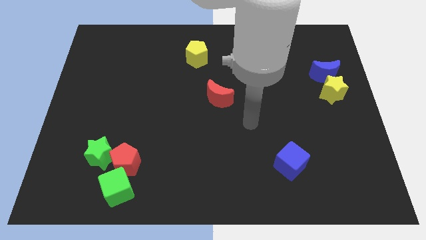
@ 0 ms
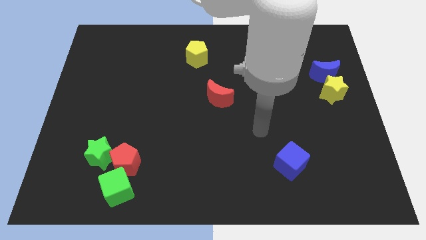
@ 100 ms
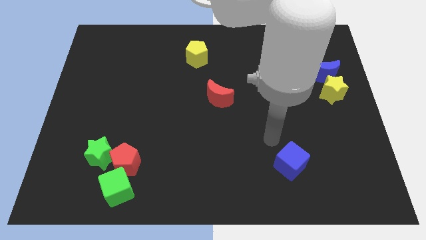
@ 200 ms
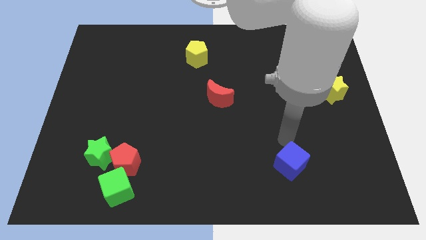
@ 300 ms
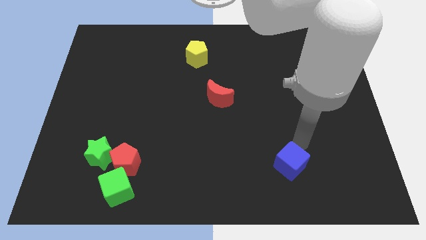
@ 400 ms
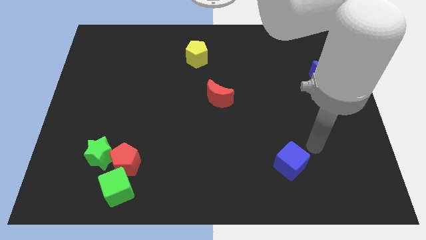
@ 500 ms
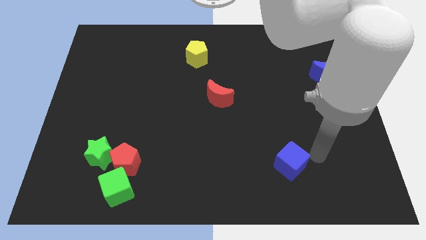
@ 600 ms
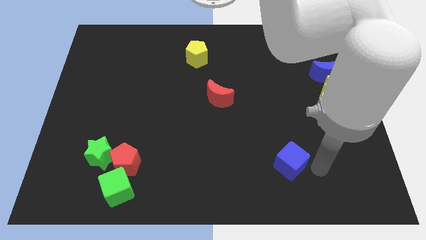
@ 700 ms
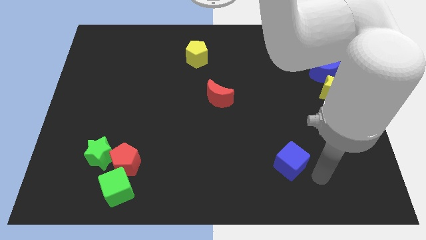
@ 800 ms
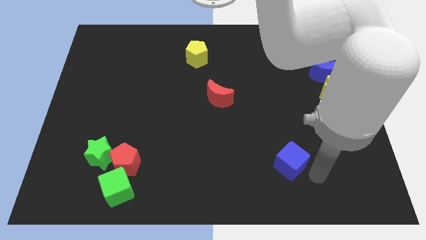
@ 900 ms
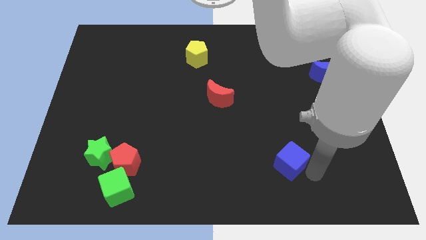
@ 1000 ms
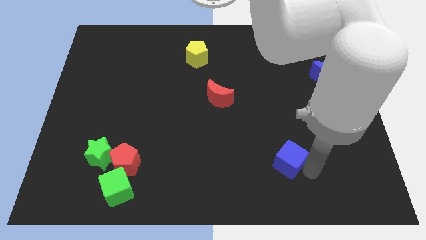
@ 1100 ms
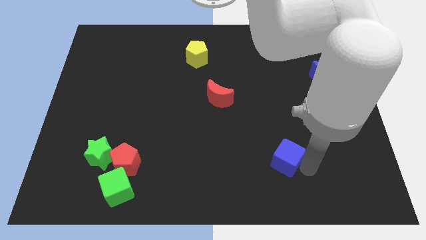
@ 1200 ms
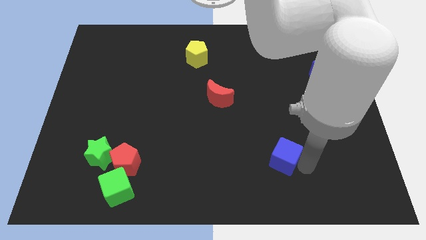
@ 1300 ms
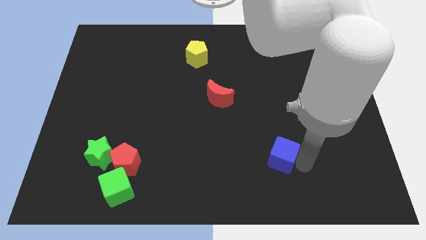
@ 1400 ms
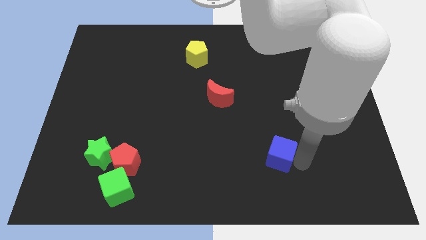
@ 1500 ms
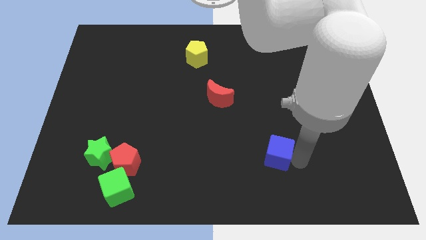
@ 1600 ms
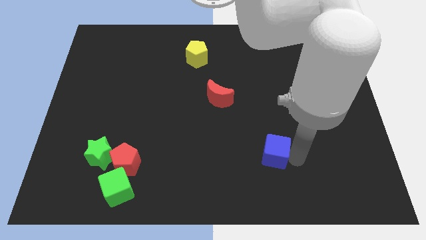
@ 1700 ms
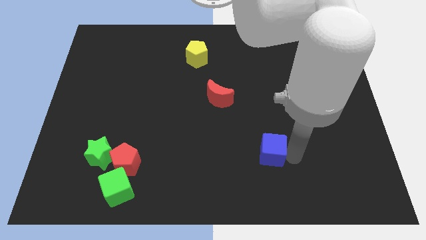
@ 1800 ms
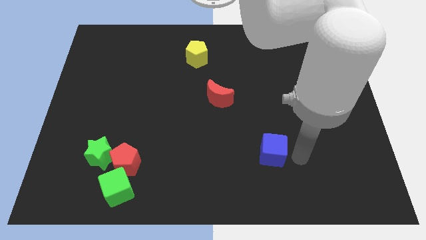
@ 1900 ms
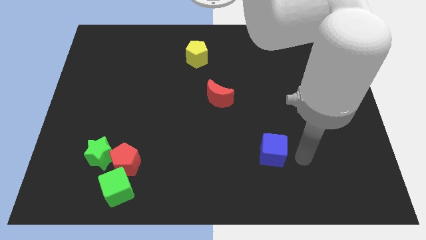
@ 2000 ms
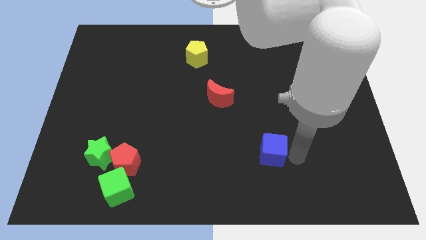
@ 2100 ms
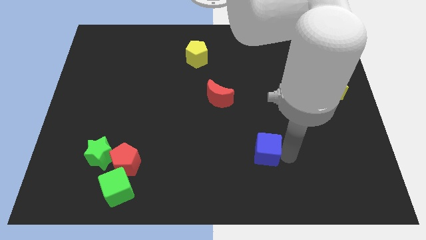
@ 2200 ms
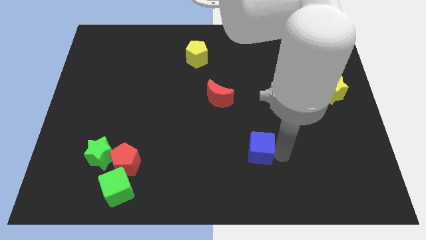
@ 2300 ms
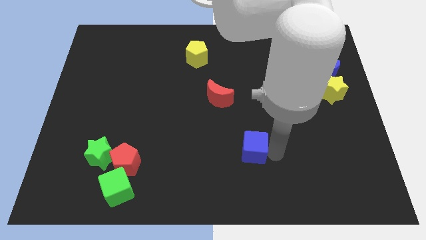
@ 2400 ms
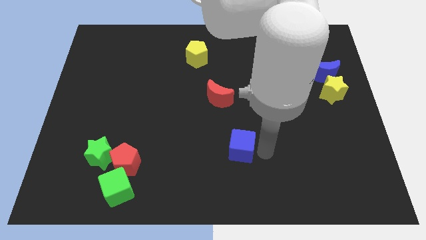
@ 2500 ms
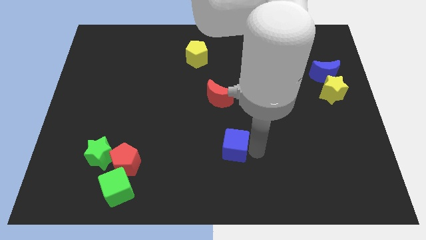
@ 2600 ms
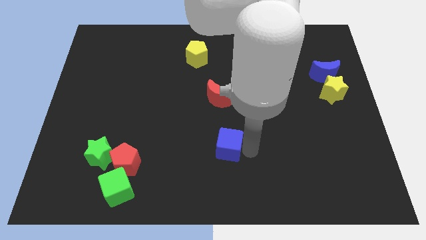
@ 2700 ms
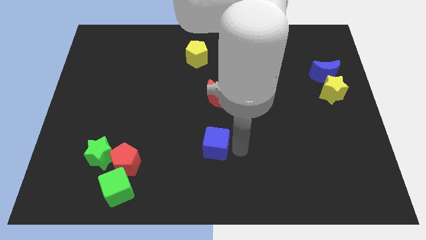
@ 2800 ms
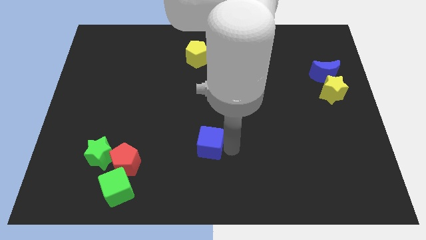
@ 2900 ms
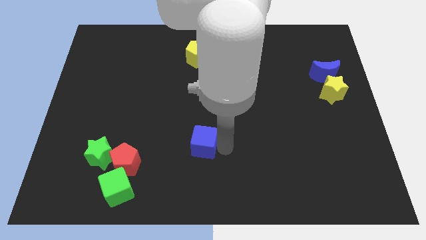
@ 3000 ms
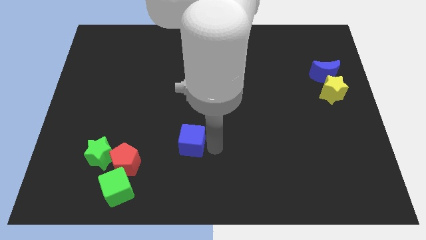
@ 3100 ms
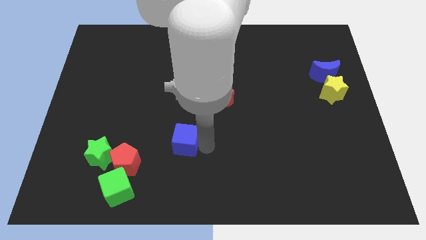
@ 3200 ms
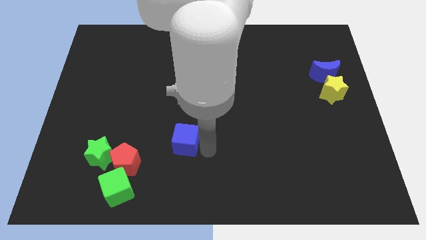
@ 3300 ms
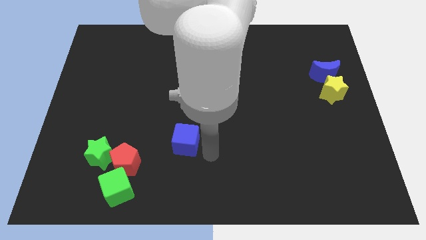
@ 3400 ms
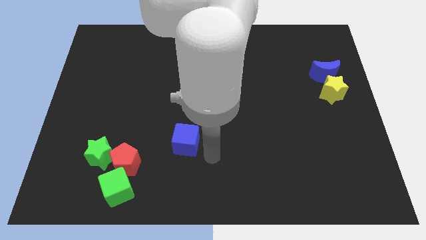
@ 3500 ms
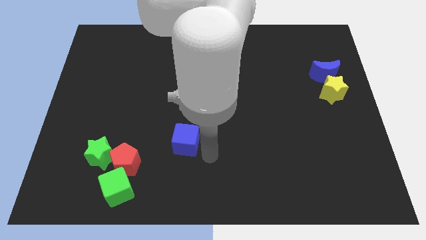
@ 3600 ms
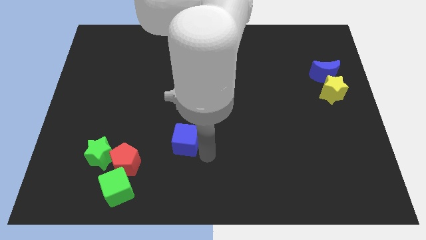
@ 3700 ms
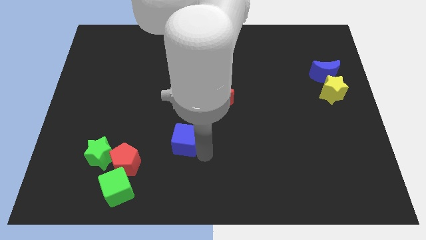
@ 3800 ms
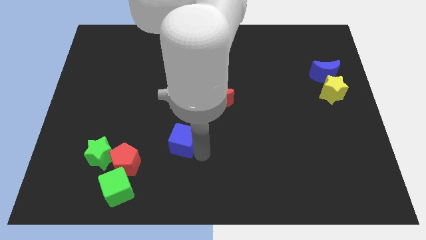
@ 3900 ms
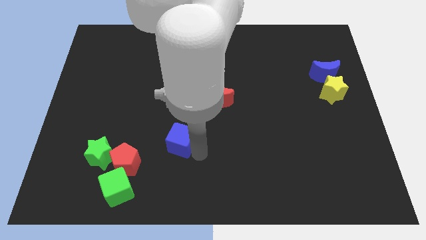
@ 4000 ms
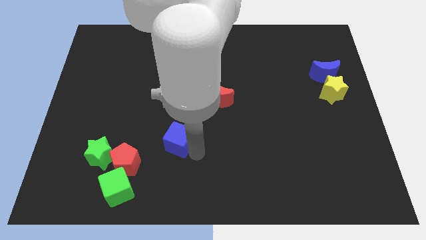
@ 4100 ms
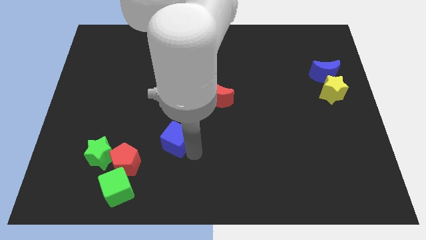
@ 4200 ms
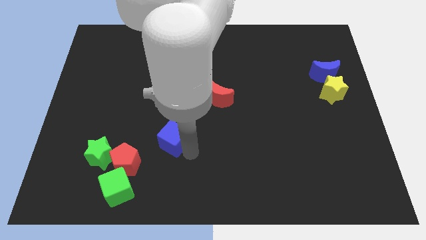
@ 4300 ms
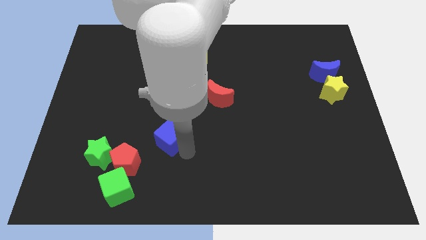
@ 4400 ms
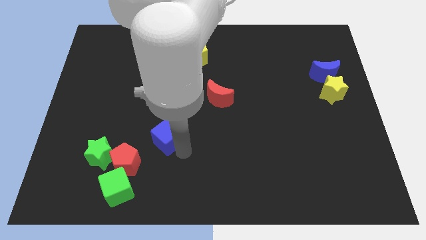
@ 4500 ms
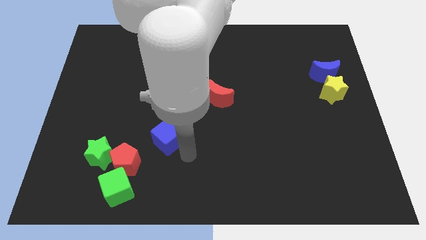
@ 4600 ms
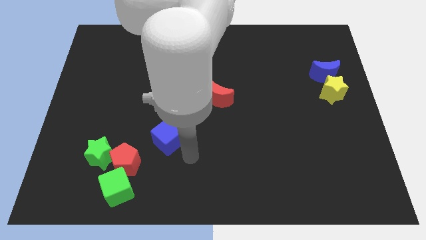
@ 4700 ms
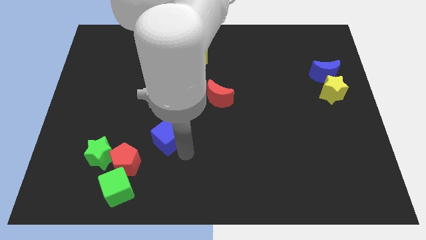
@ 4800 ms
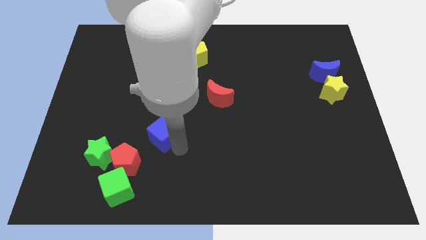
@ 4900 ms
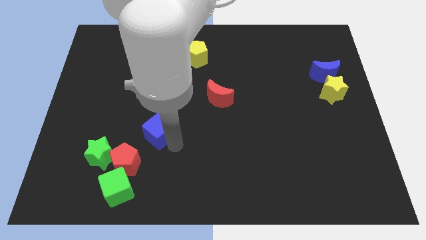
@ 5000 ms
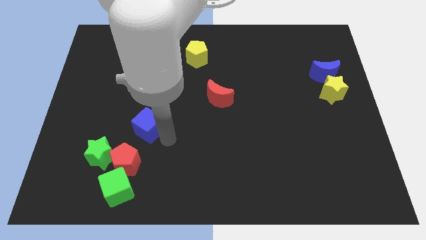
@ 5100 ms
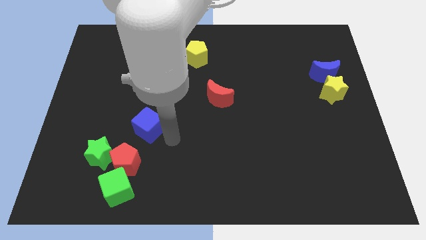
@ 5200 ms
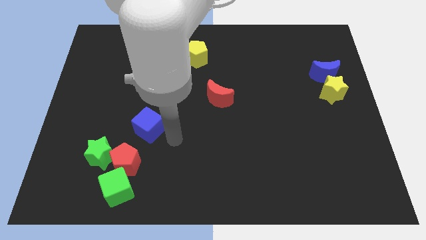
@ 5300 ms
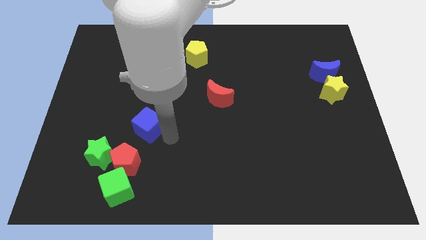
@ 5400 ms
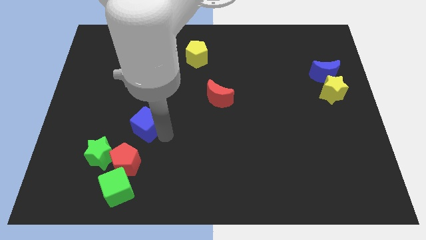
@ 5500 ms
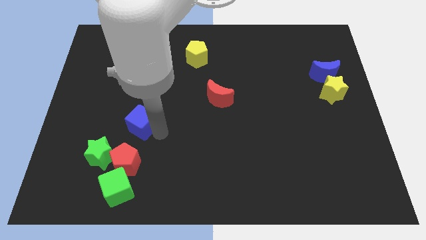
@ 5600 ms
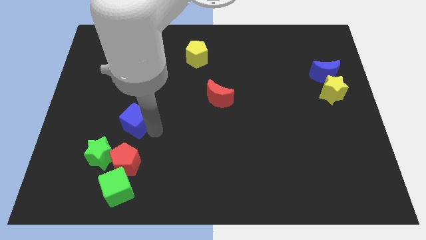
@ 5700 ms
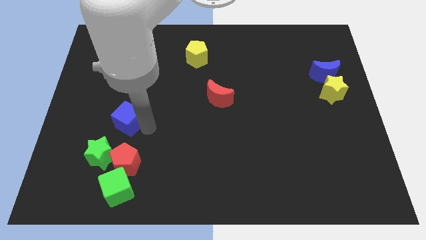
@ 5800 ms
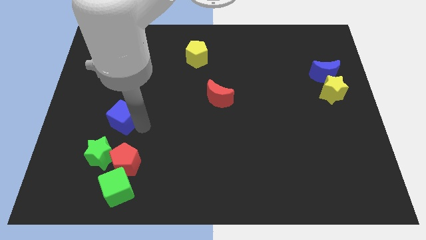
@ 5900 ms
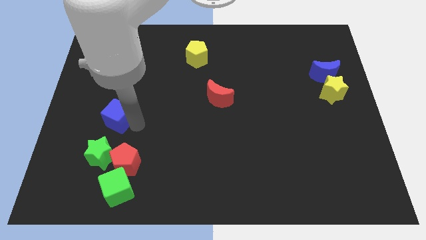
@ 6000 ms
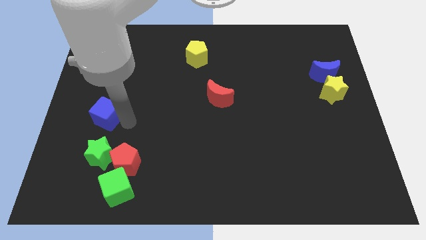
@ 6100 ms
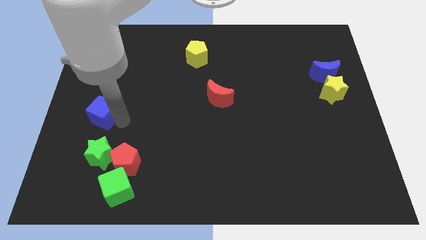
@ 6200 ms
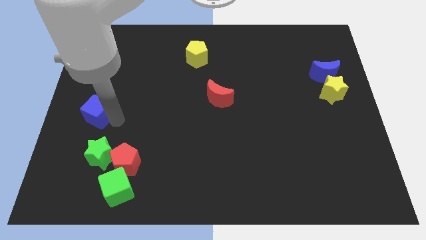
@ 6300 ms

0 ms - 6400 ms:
push the blue cube to the left side

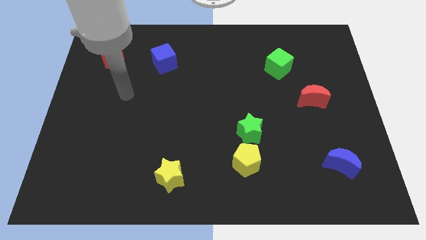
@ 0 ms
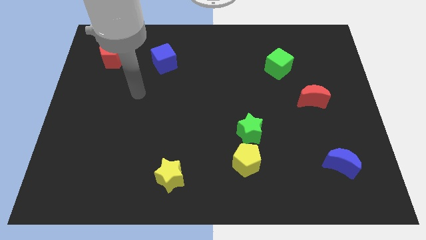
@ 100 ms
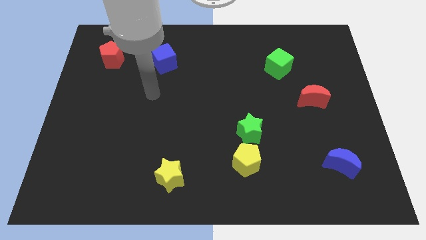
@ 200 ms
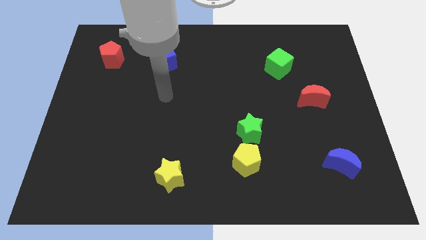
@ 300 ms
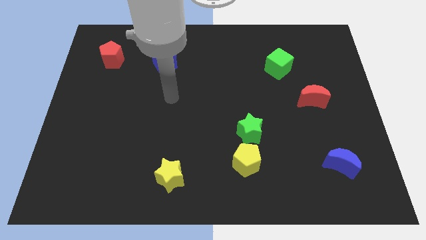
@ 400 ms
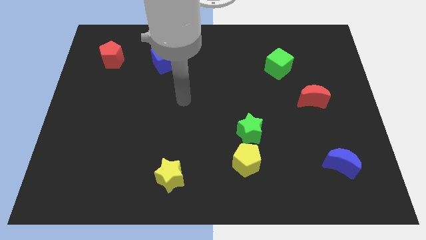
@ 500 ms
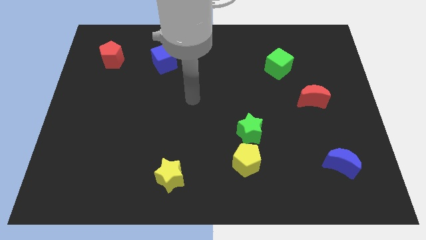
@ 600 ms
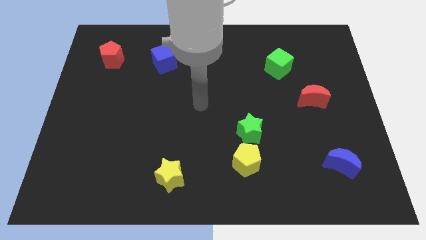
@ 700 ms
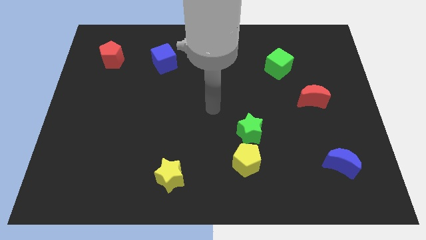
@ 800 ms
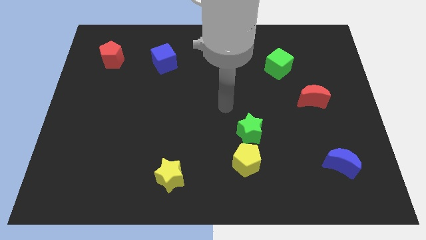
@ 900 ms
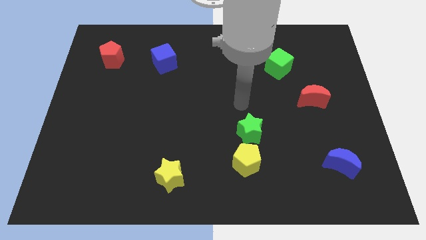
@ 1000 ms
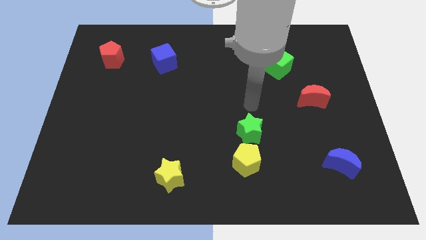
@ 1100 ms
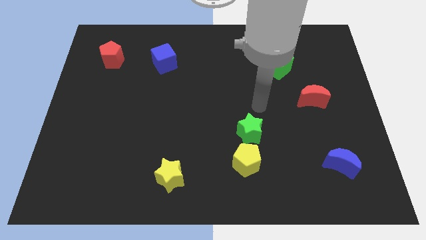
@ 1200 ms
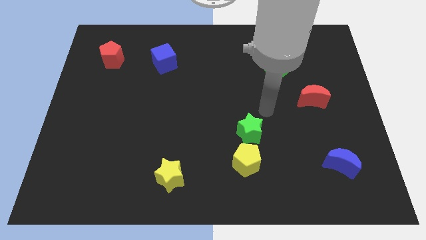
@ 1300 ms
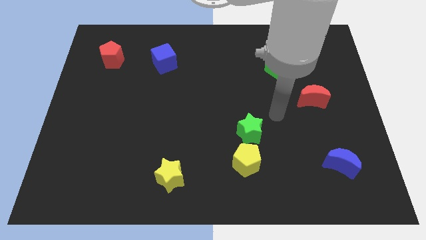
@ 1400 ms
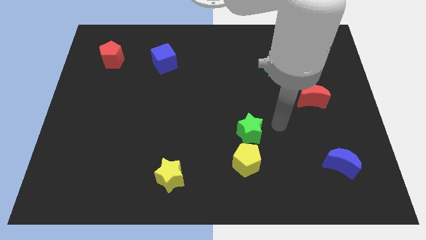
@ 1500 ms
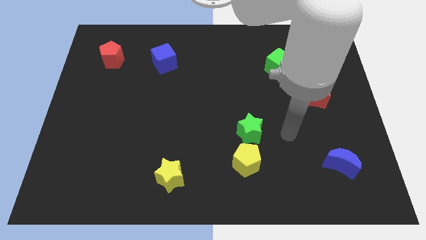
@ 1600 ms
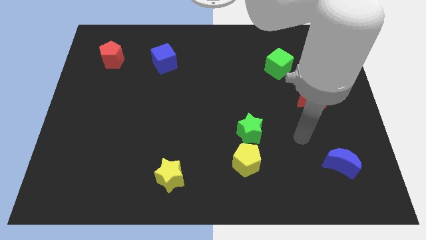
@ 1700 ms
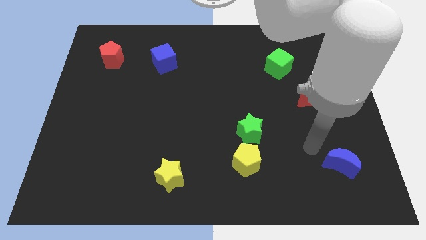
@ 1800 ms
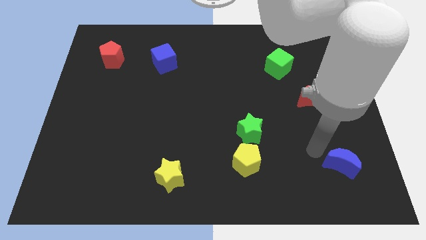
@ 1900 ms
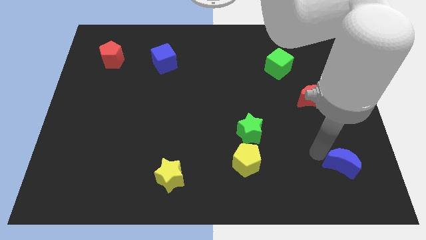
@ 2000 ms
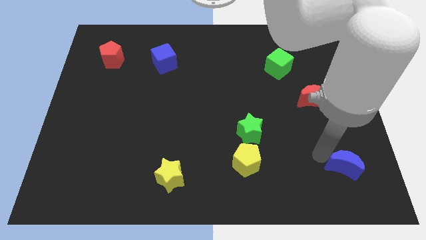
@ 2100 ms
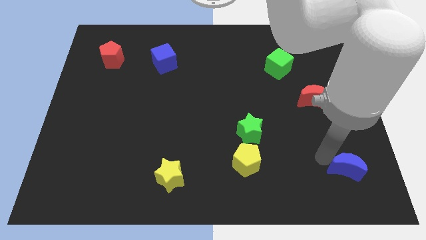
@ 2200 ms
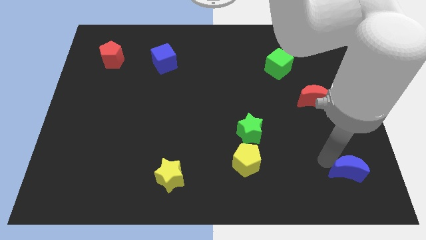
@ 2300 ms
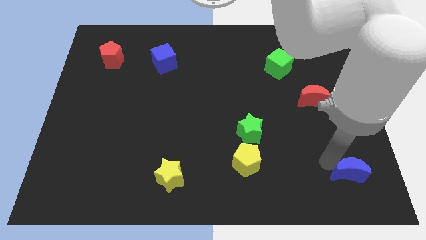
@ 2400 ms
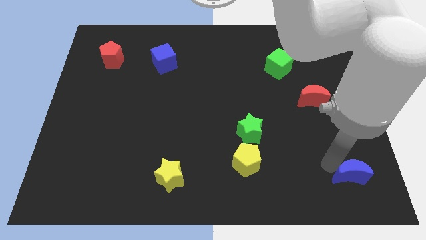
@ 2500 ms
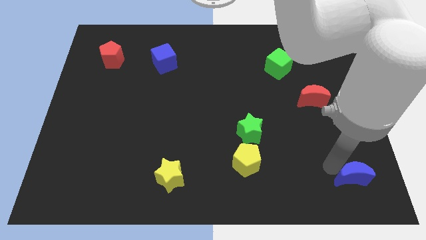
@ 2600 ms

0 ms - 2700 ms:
put the blue moon to the bottom right corner
